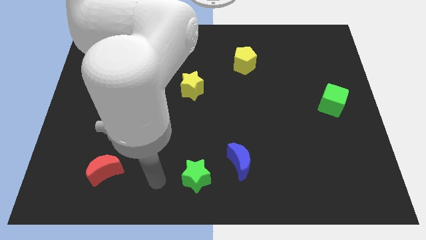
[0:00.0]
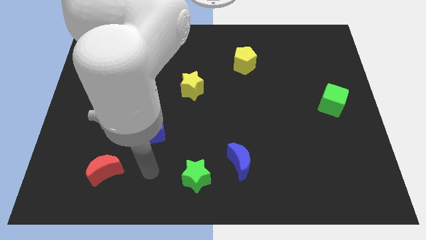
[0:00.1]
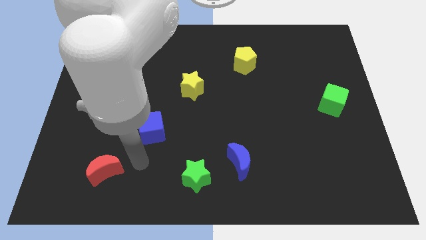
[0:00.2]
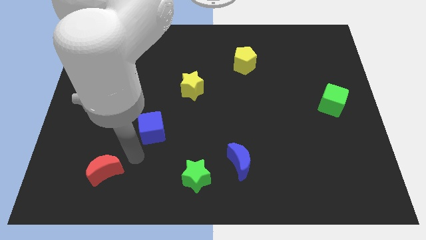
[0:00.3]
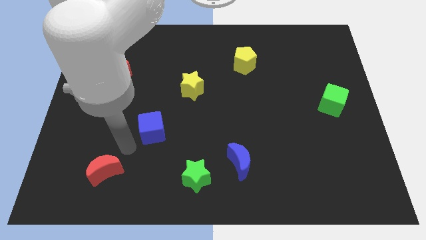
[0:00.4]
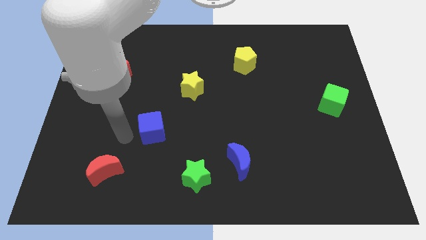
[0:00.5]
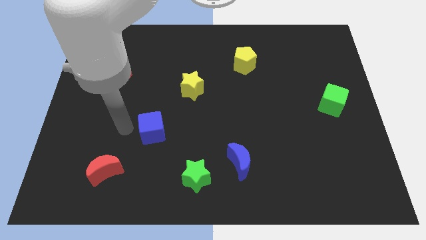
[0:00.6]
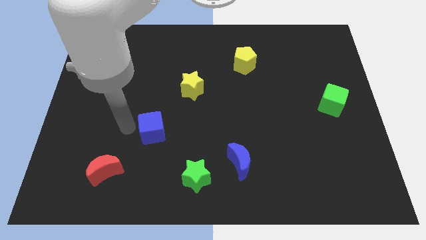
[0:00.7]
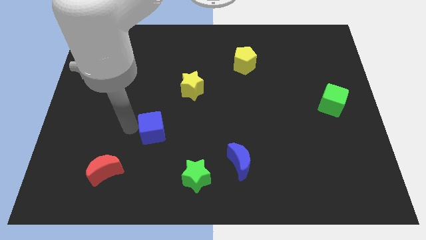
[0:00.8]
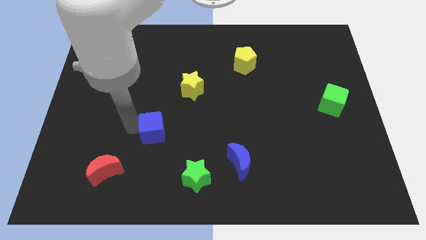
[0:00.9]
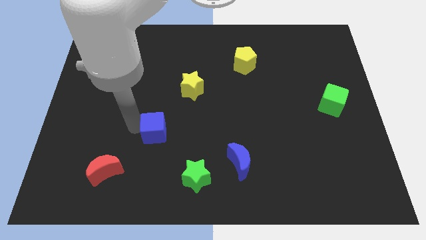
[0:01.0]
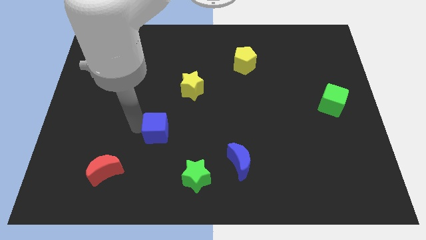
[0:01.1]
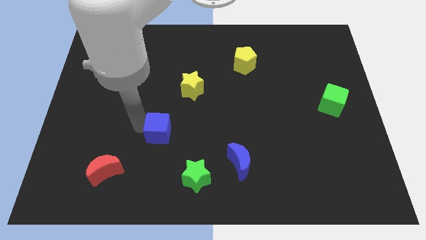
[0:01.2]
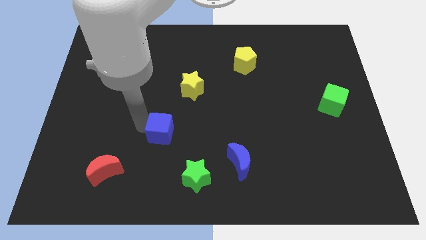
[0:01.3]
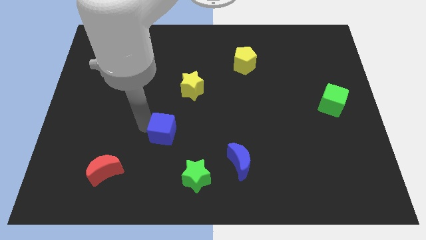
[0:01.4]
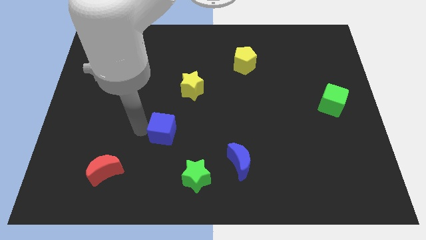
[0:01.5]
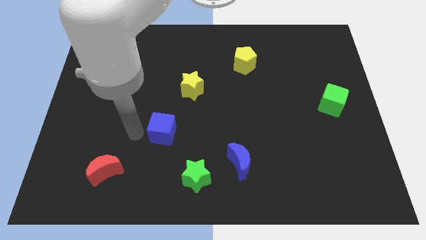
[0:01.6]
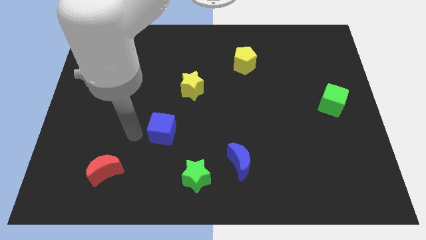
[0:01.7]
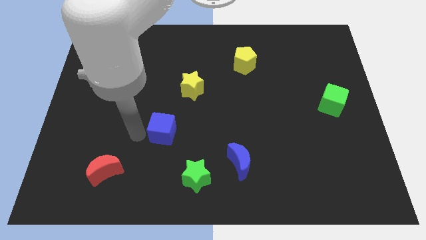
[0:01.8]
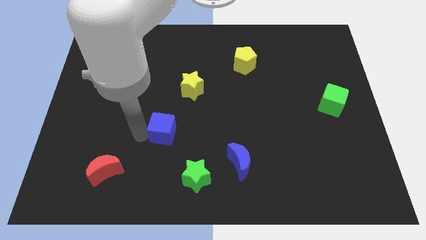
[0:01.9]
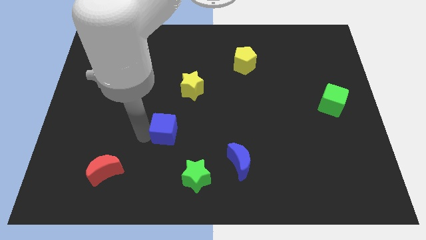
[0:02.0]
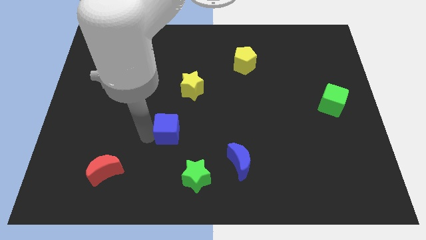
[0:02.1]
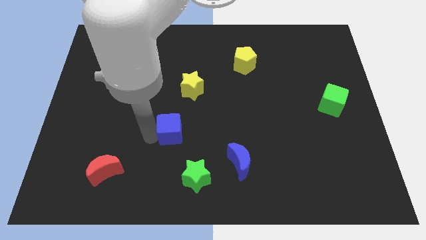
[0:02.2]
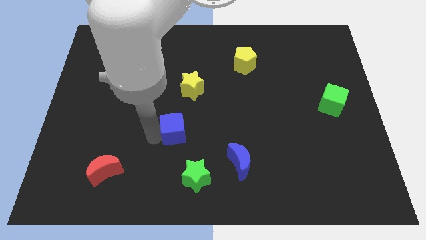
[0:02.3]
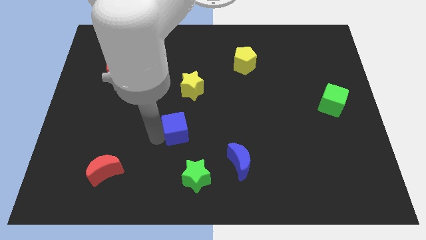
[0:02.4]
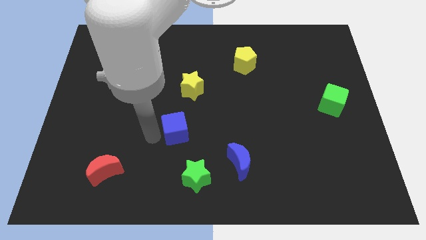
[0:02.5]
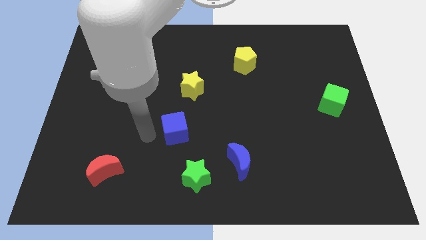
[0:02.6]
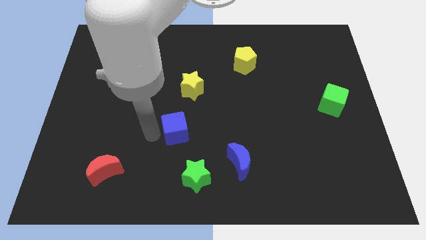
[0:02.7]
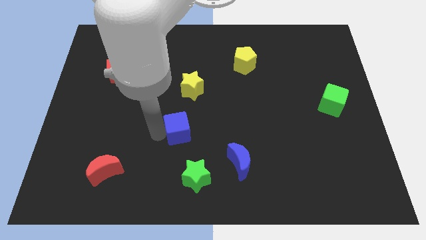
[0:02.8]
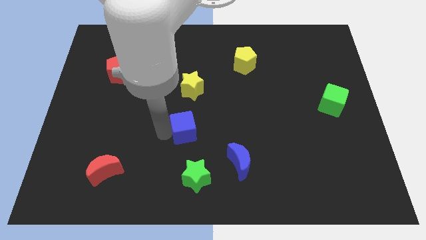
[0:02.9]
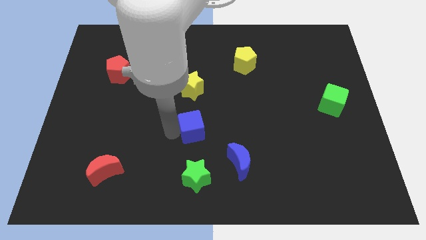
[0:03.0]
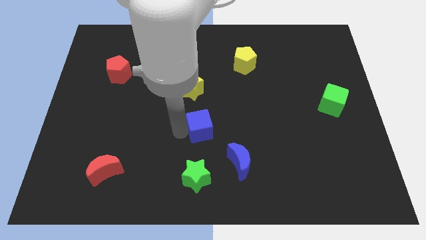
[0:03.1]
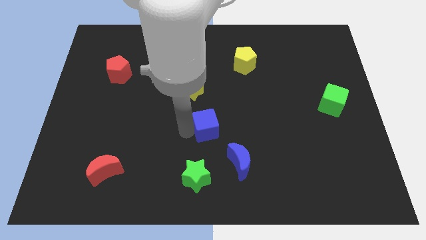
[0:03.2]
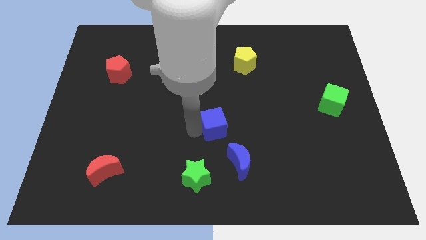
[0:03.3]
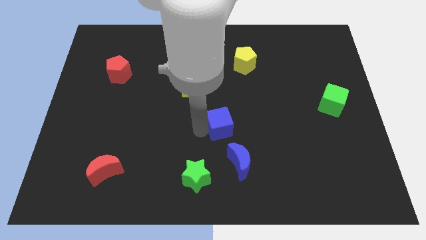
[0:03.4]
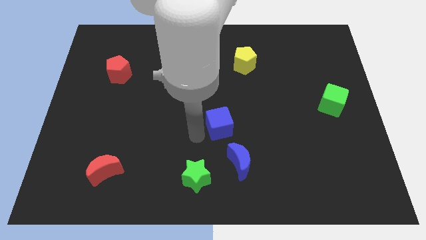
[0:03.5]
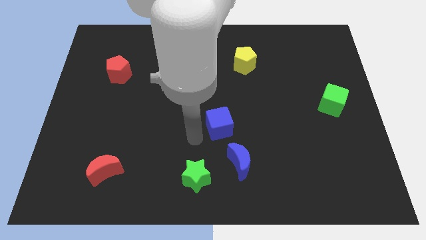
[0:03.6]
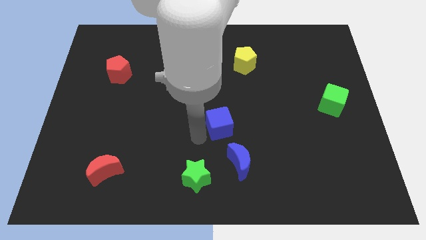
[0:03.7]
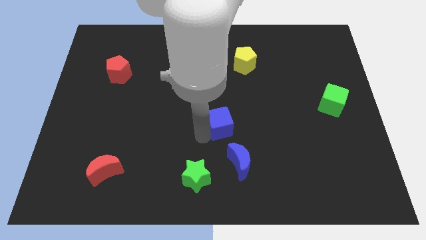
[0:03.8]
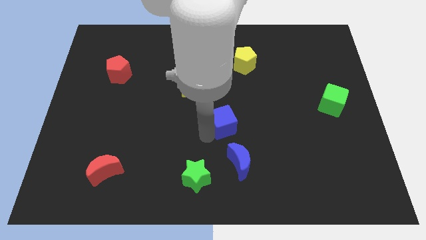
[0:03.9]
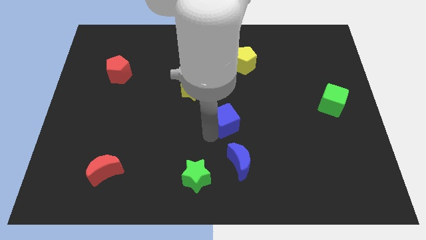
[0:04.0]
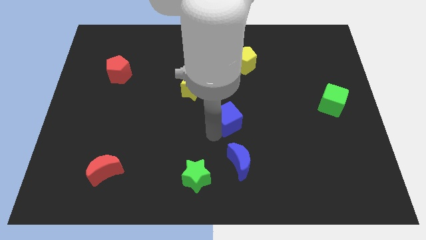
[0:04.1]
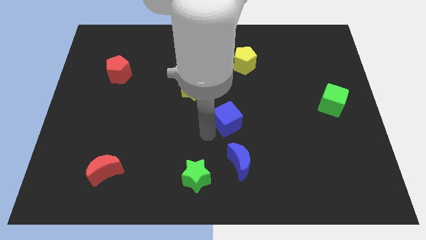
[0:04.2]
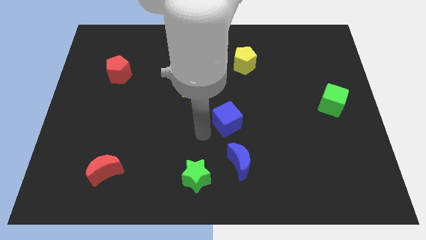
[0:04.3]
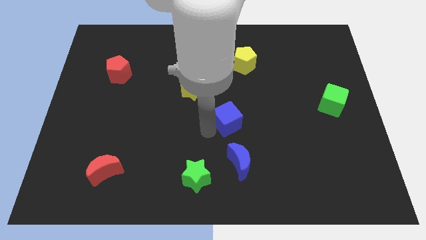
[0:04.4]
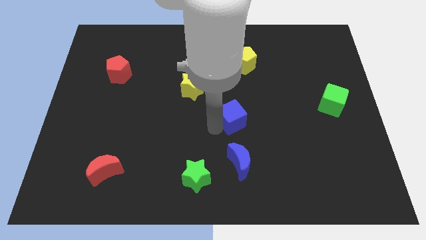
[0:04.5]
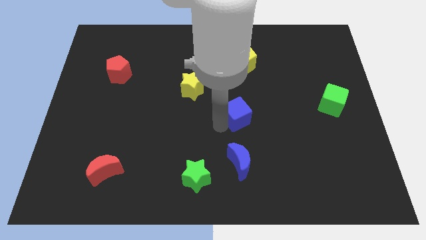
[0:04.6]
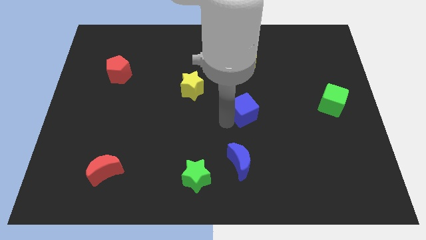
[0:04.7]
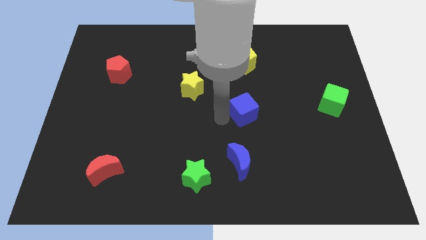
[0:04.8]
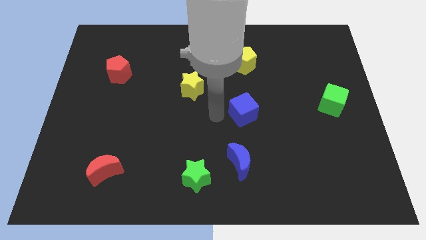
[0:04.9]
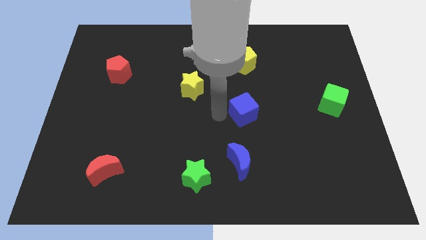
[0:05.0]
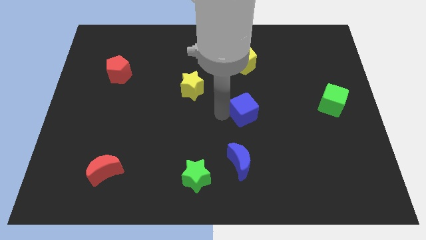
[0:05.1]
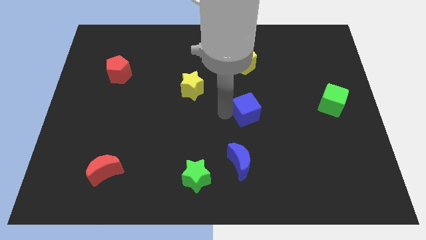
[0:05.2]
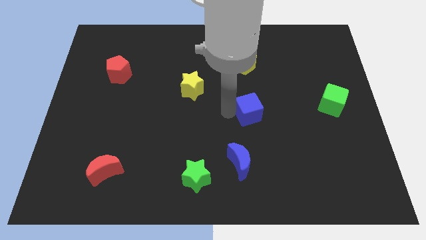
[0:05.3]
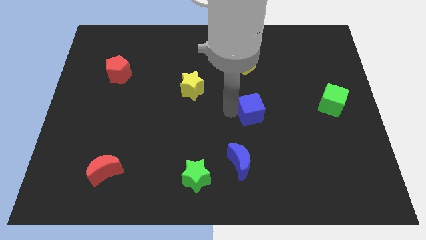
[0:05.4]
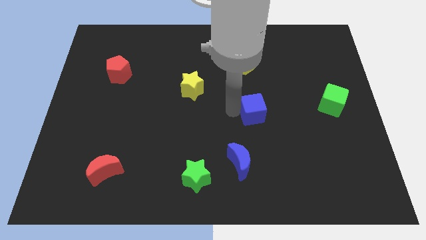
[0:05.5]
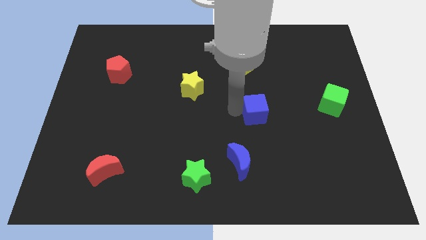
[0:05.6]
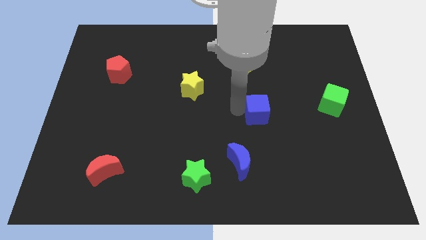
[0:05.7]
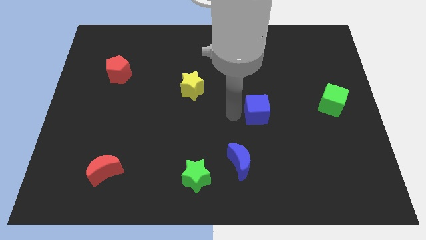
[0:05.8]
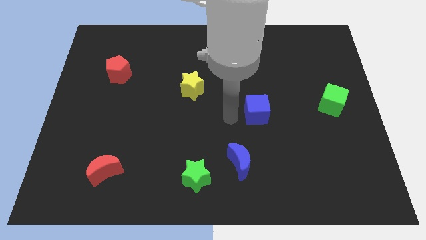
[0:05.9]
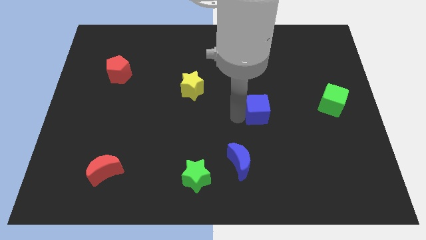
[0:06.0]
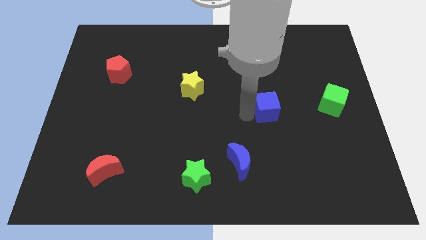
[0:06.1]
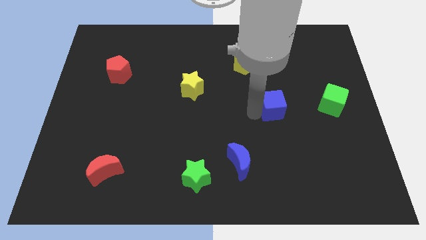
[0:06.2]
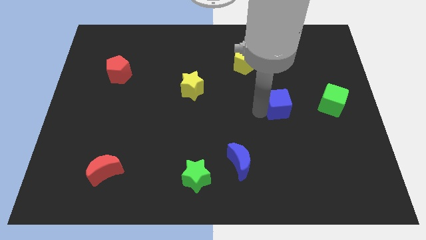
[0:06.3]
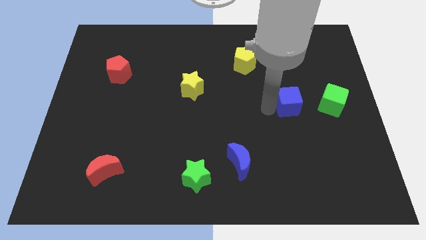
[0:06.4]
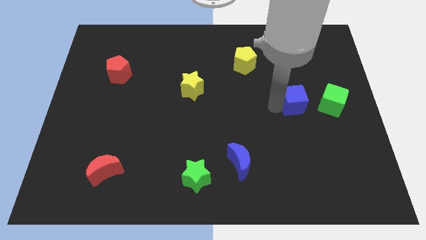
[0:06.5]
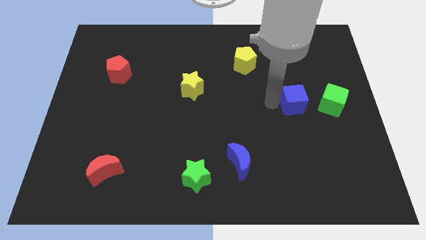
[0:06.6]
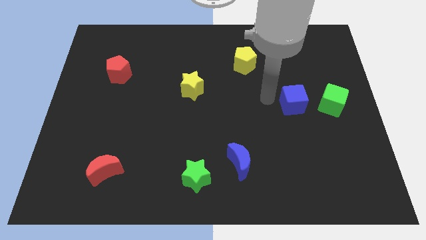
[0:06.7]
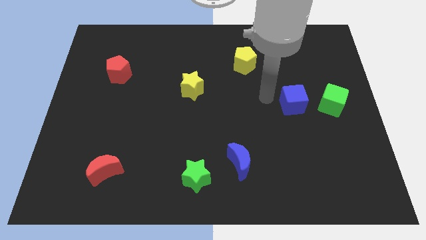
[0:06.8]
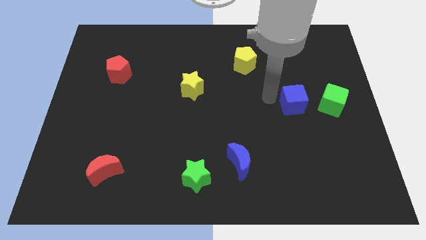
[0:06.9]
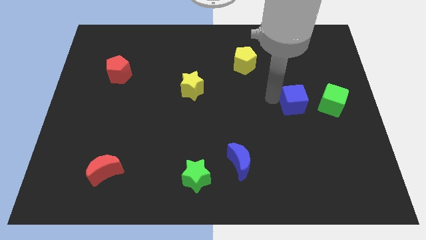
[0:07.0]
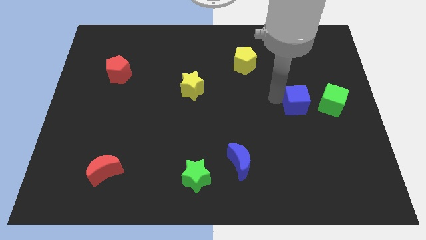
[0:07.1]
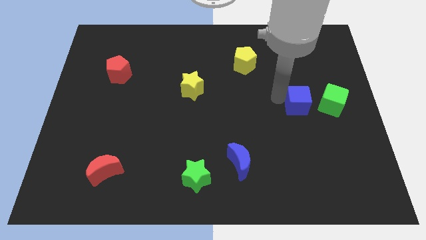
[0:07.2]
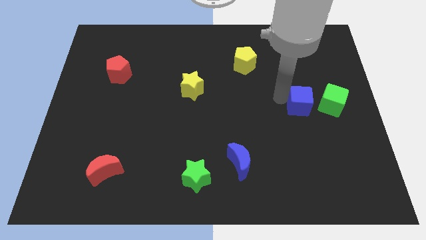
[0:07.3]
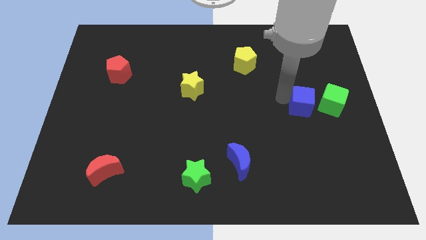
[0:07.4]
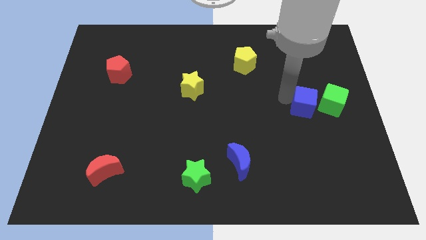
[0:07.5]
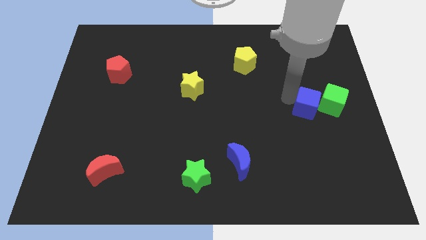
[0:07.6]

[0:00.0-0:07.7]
put the blue cube towards the green cube

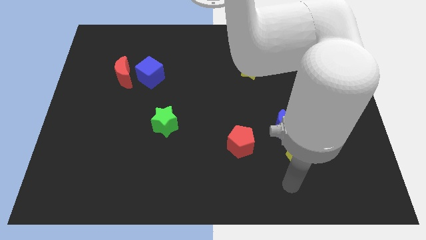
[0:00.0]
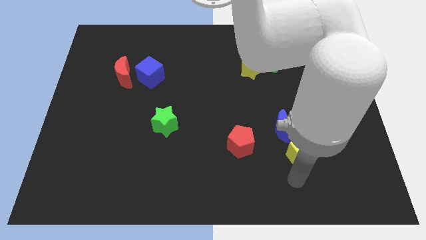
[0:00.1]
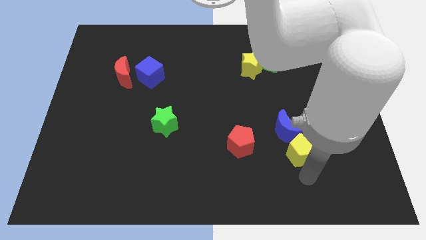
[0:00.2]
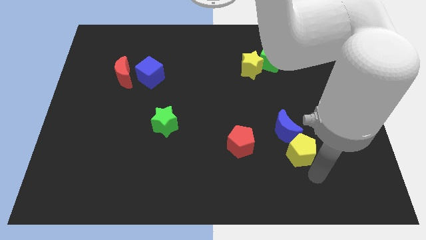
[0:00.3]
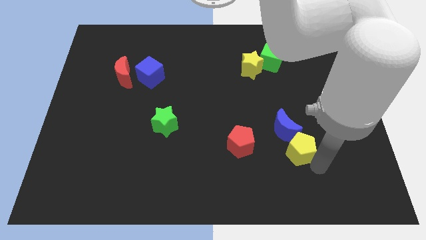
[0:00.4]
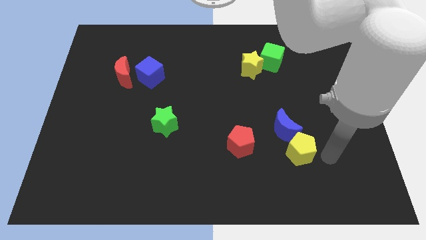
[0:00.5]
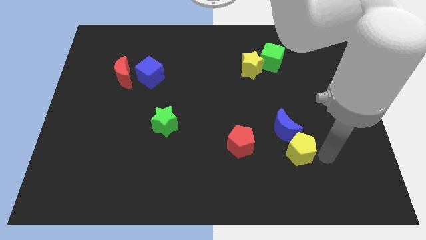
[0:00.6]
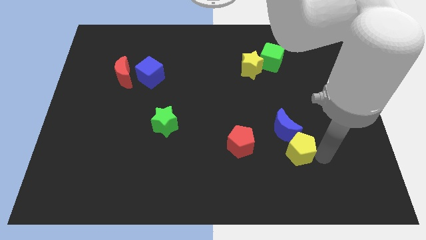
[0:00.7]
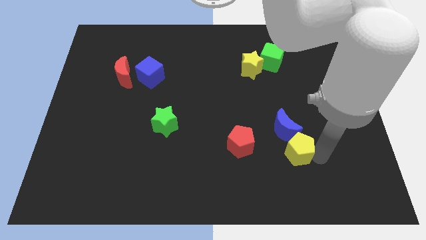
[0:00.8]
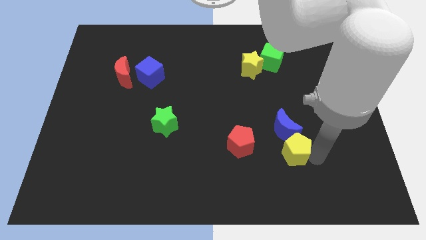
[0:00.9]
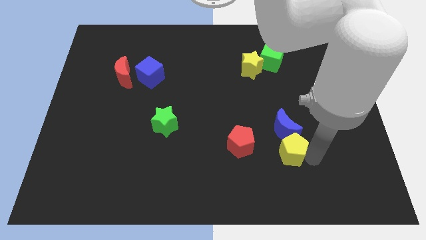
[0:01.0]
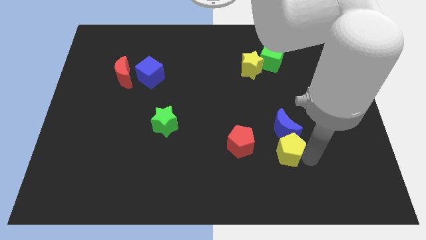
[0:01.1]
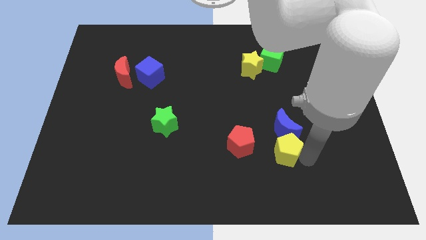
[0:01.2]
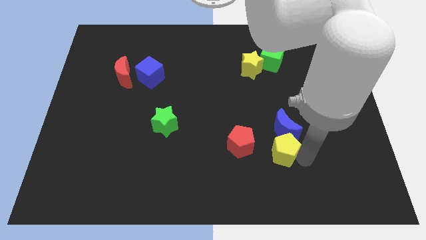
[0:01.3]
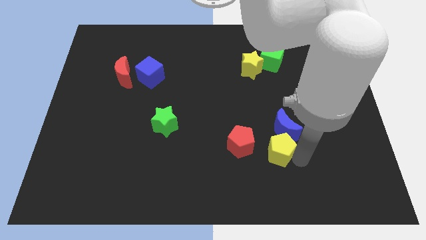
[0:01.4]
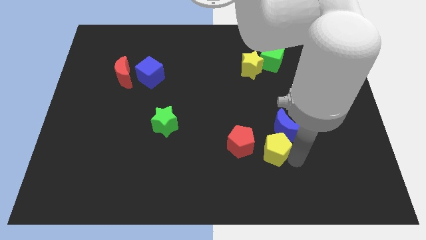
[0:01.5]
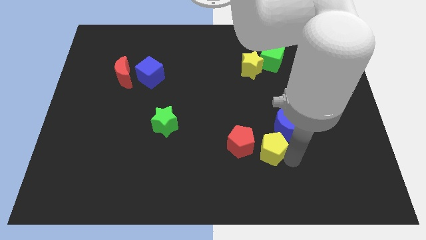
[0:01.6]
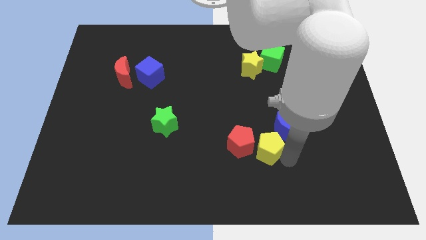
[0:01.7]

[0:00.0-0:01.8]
put the yellow pentagon towards the red pentagon
